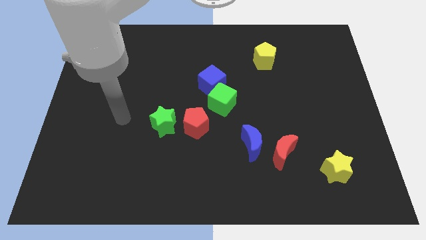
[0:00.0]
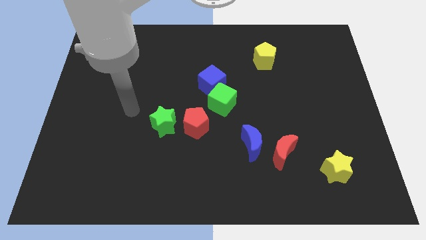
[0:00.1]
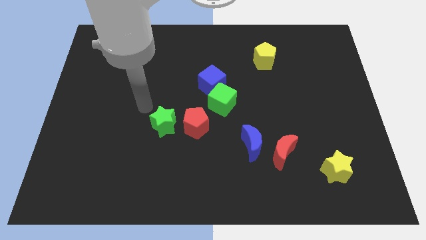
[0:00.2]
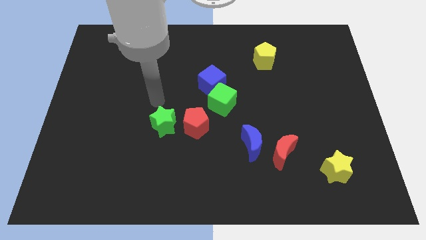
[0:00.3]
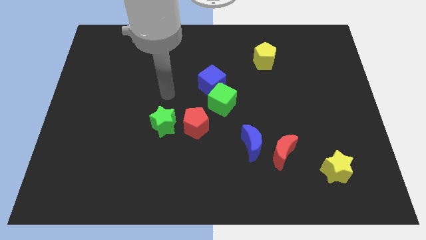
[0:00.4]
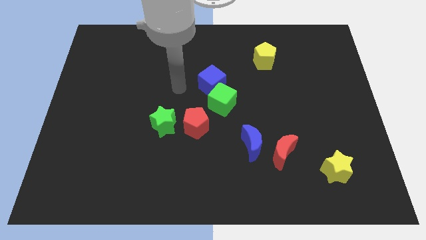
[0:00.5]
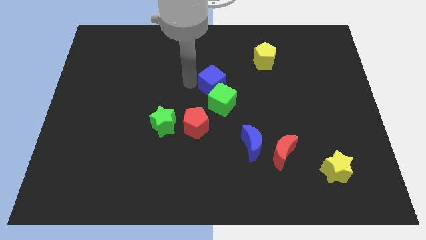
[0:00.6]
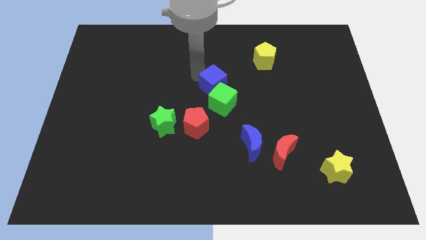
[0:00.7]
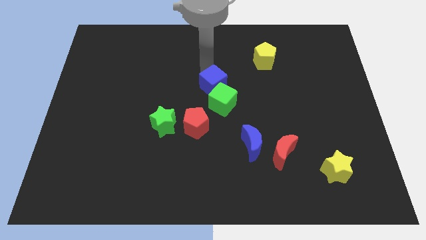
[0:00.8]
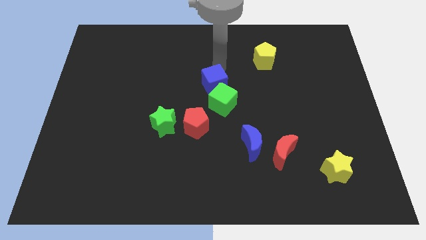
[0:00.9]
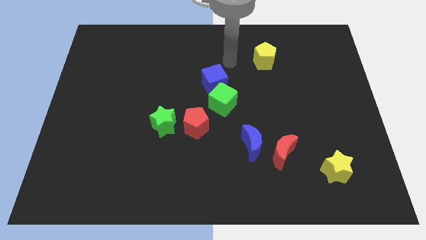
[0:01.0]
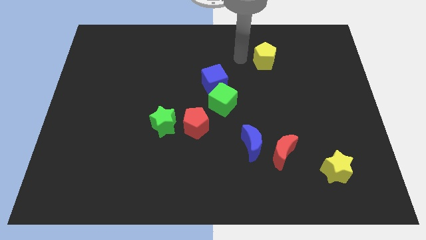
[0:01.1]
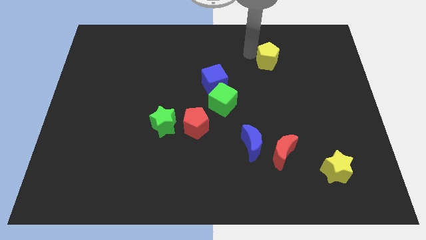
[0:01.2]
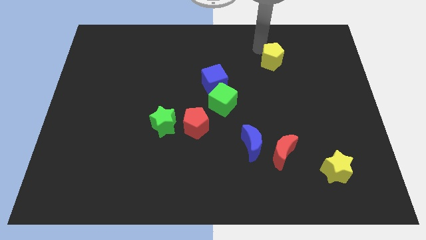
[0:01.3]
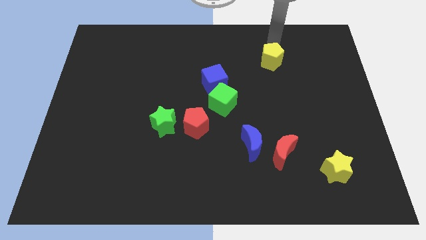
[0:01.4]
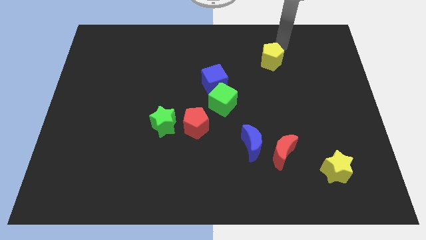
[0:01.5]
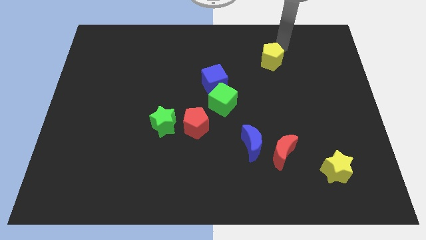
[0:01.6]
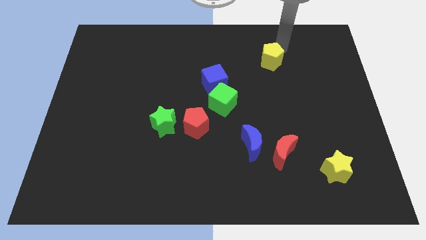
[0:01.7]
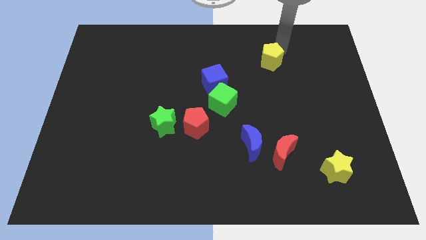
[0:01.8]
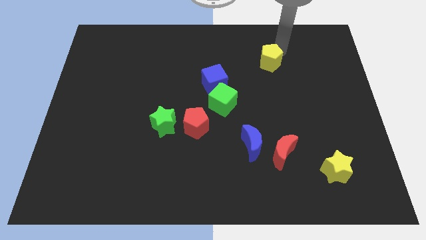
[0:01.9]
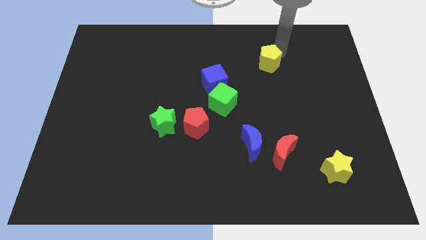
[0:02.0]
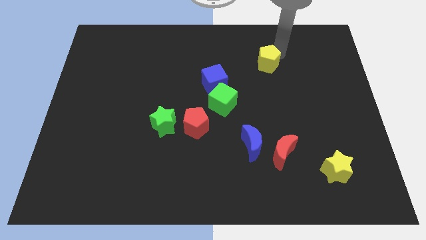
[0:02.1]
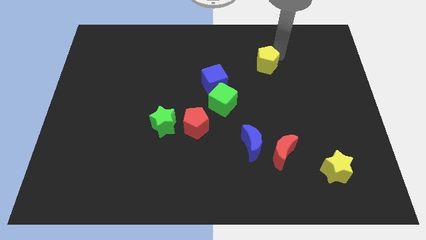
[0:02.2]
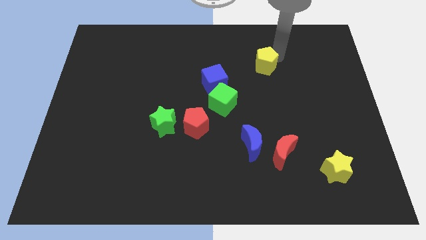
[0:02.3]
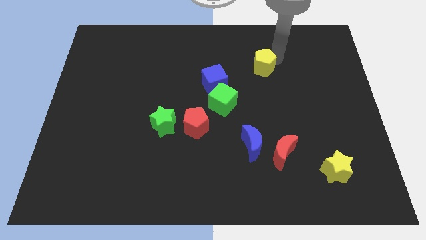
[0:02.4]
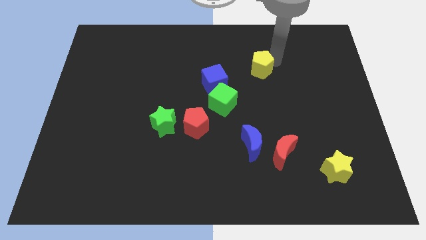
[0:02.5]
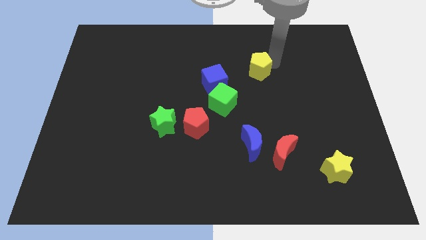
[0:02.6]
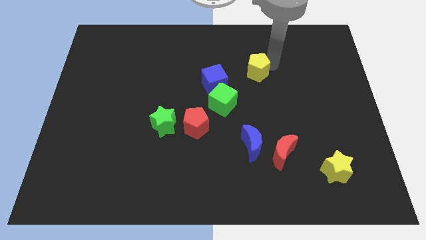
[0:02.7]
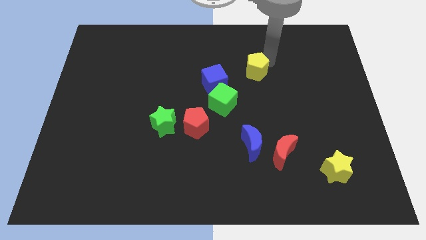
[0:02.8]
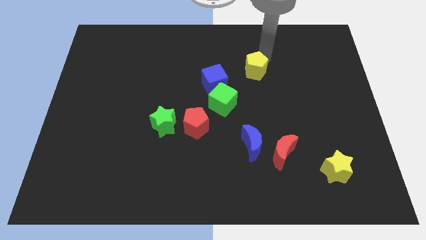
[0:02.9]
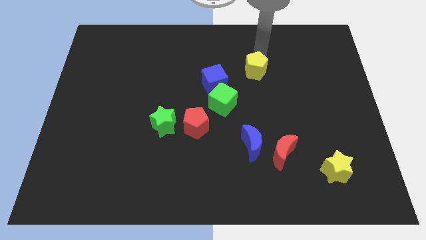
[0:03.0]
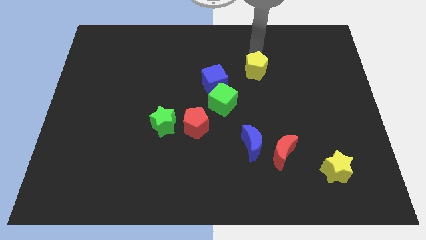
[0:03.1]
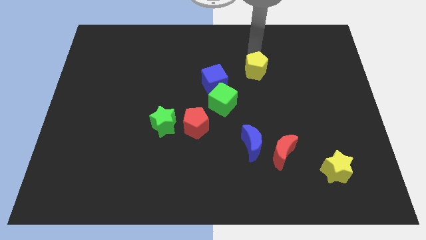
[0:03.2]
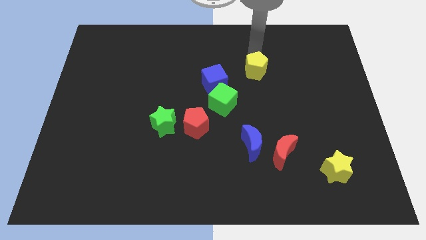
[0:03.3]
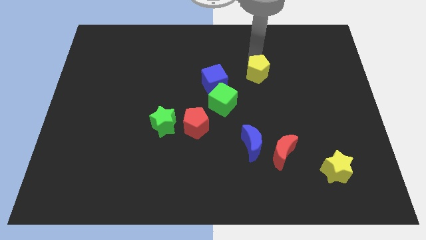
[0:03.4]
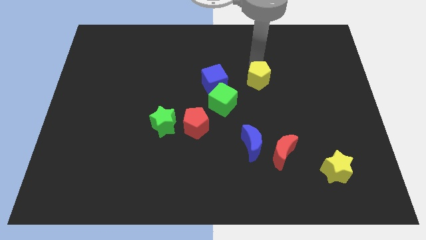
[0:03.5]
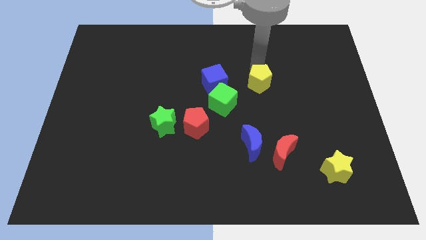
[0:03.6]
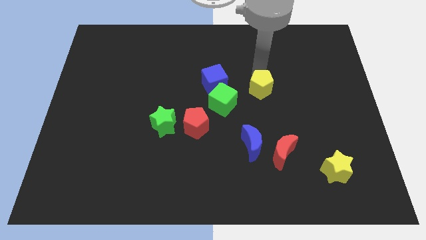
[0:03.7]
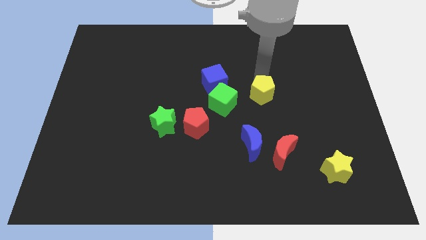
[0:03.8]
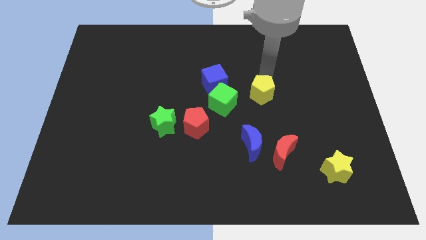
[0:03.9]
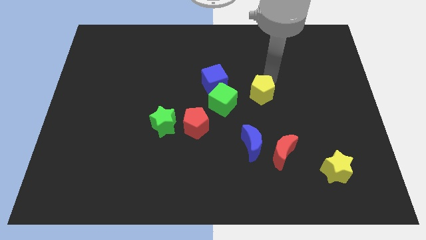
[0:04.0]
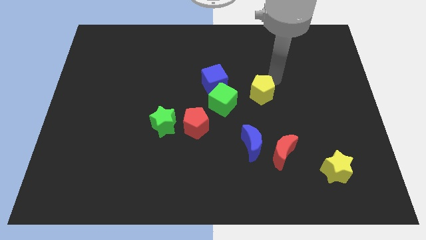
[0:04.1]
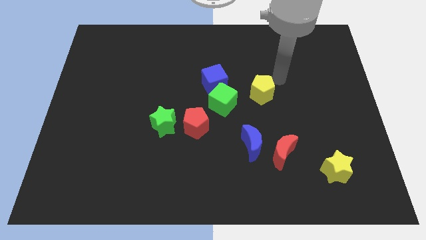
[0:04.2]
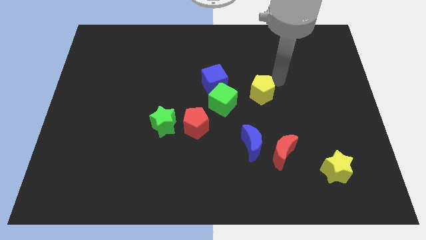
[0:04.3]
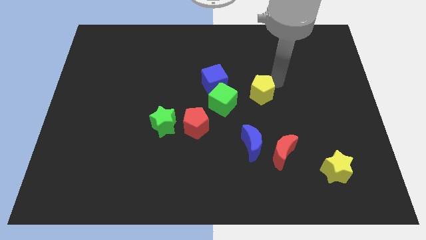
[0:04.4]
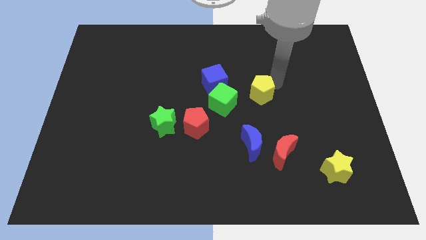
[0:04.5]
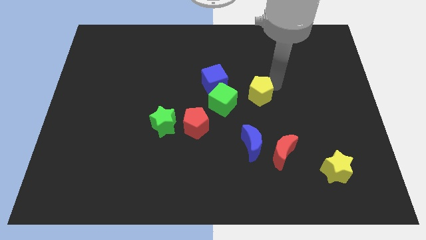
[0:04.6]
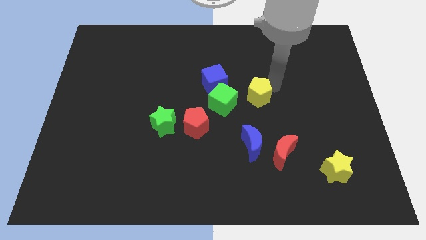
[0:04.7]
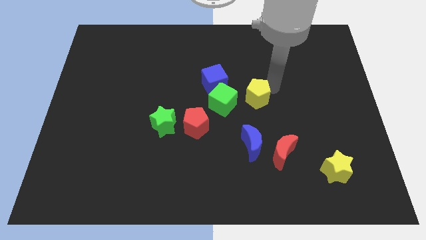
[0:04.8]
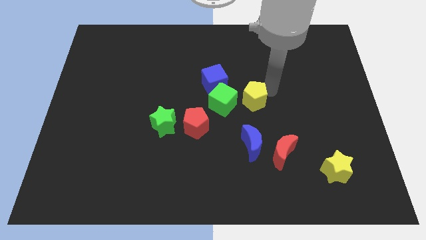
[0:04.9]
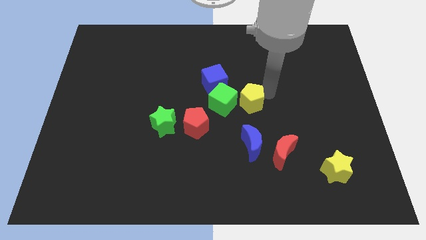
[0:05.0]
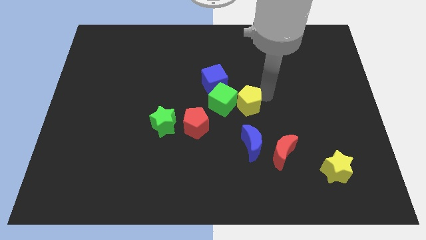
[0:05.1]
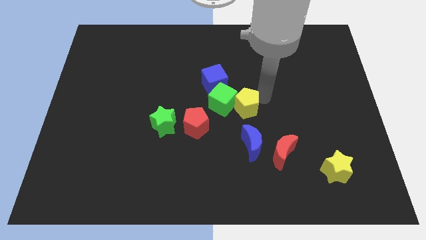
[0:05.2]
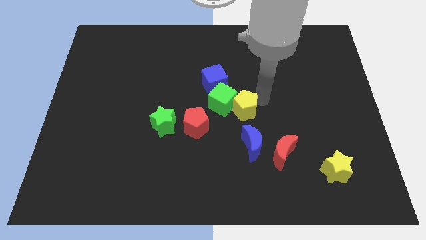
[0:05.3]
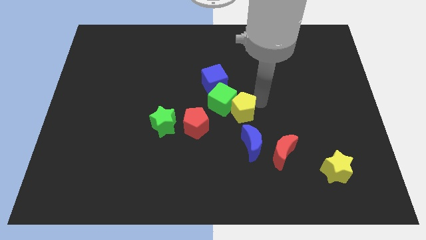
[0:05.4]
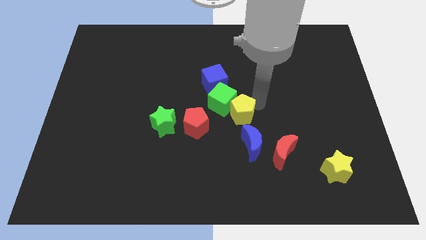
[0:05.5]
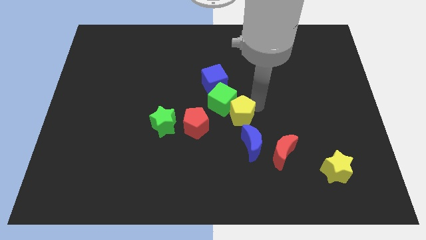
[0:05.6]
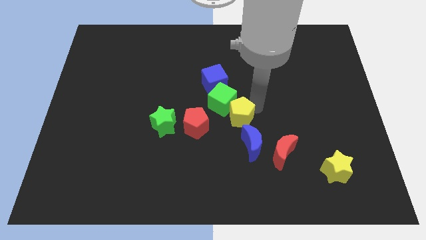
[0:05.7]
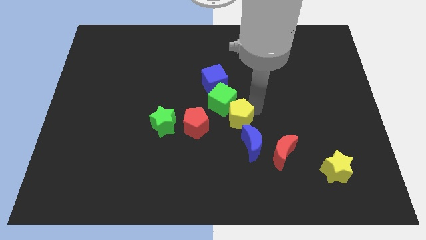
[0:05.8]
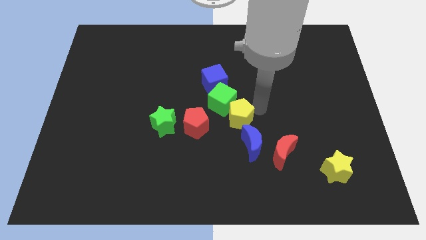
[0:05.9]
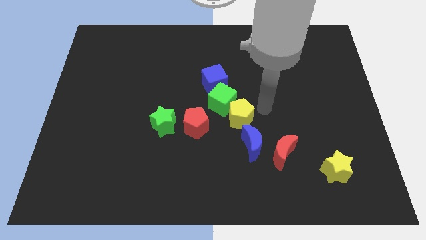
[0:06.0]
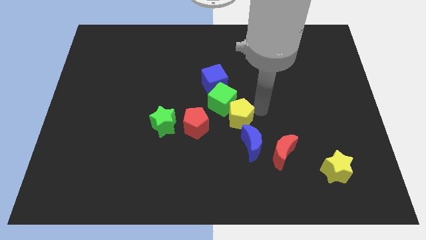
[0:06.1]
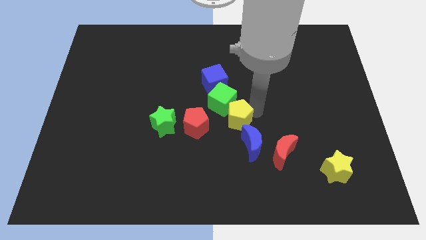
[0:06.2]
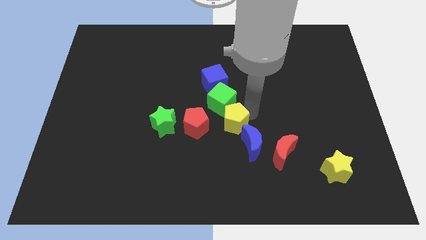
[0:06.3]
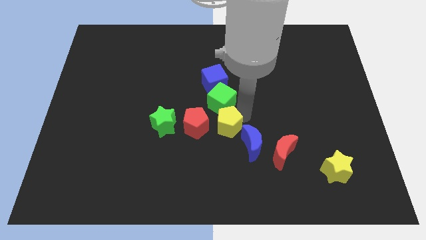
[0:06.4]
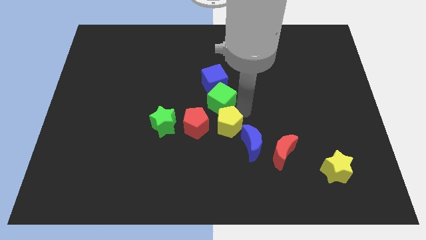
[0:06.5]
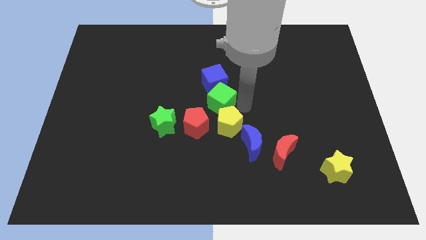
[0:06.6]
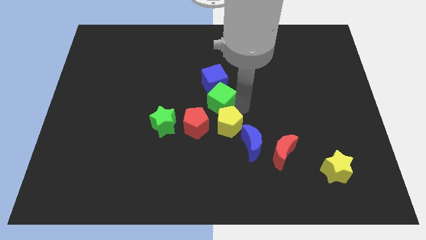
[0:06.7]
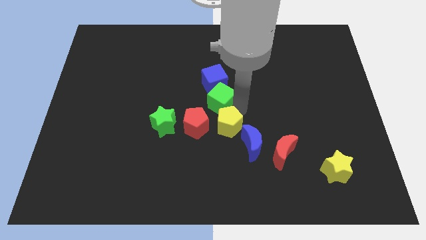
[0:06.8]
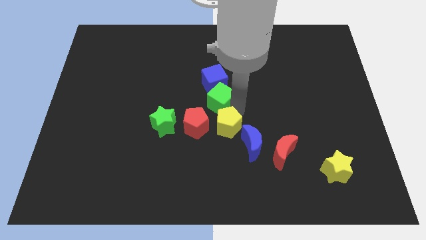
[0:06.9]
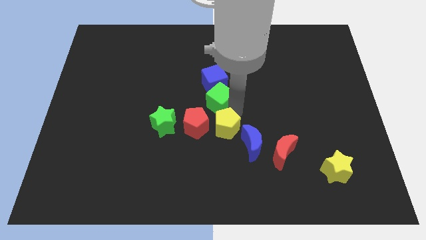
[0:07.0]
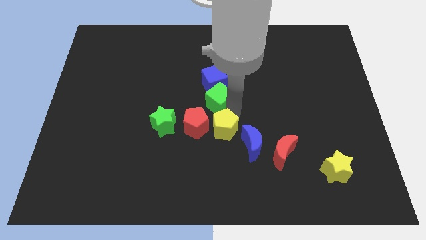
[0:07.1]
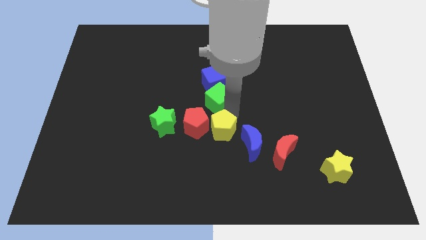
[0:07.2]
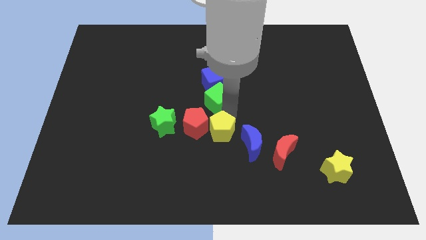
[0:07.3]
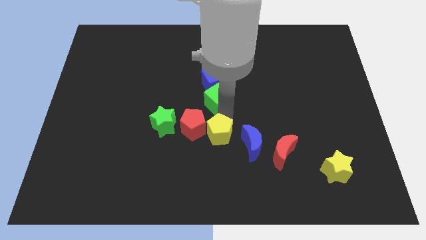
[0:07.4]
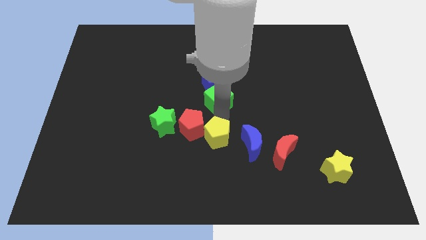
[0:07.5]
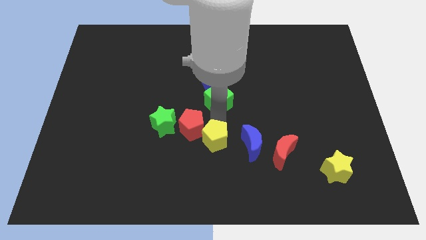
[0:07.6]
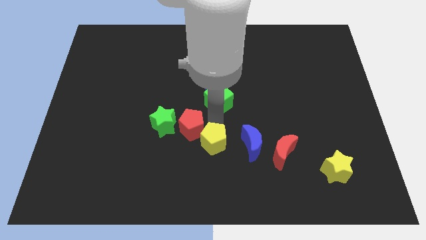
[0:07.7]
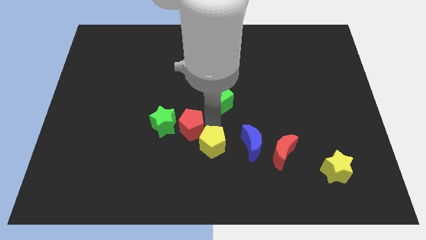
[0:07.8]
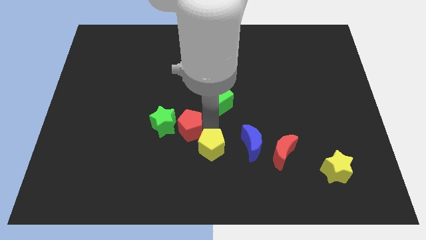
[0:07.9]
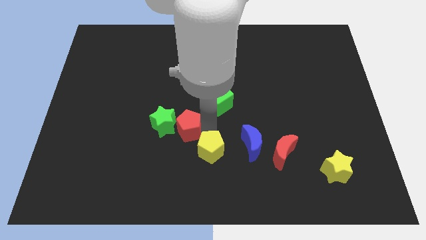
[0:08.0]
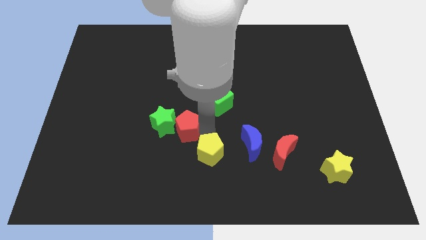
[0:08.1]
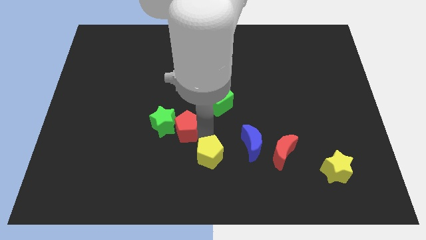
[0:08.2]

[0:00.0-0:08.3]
put the yellow pentagon to the bottom side
